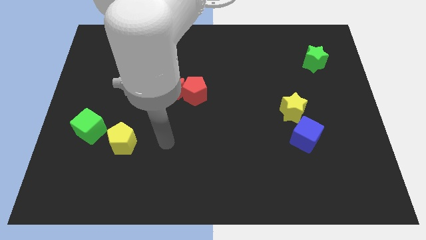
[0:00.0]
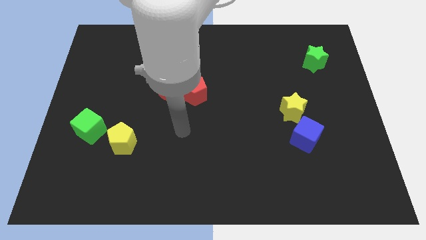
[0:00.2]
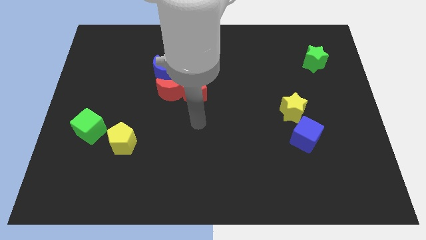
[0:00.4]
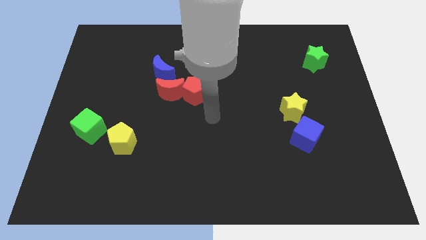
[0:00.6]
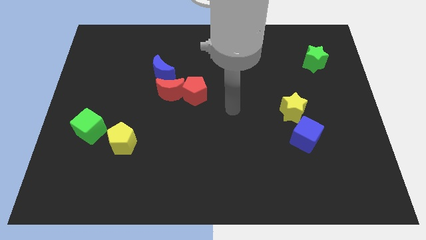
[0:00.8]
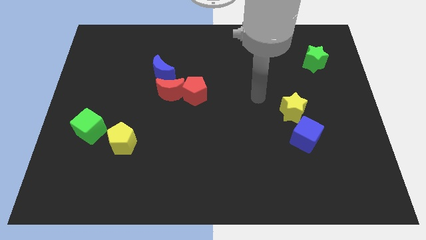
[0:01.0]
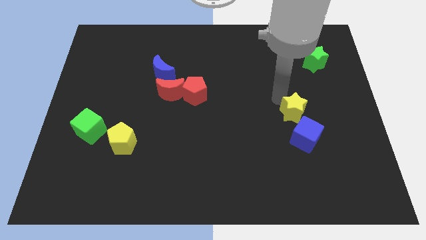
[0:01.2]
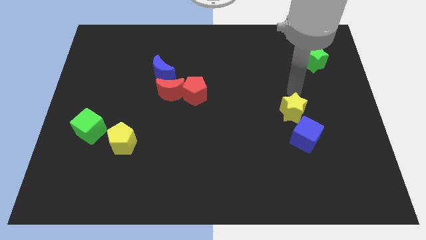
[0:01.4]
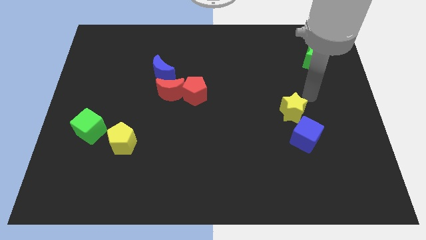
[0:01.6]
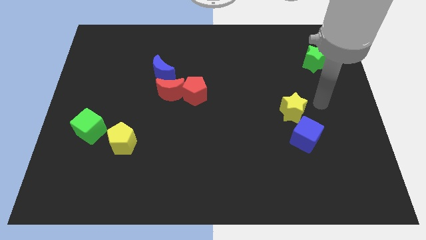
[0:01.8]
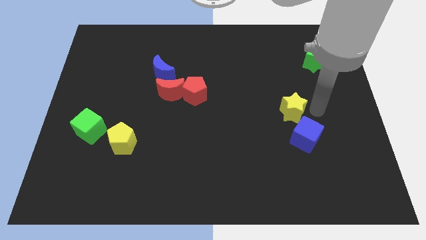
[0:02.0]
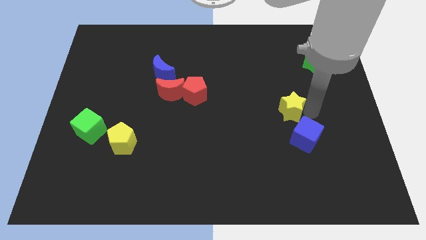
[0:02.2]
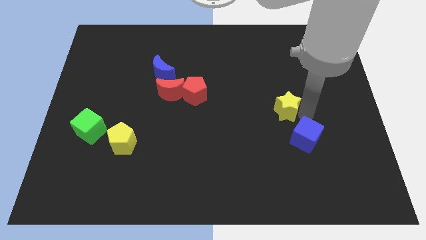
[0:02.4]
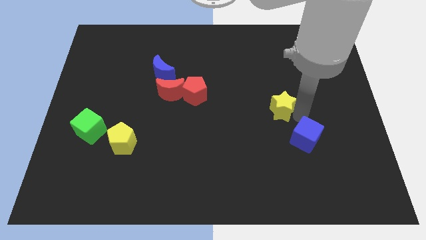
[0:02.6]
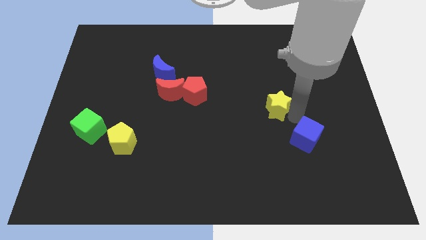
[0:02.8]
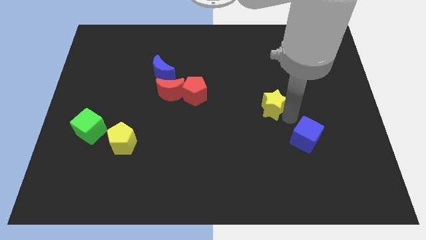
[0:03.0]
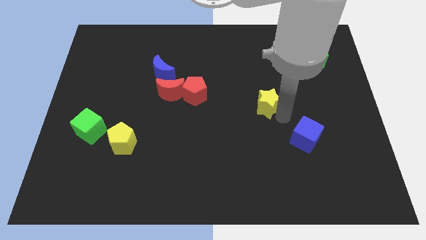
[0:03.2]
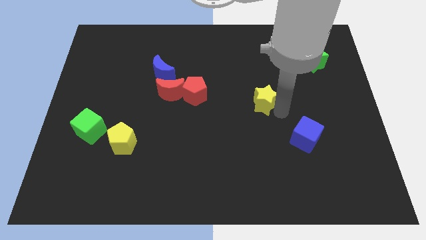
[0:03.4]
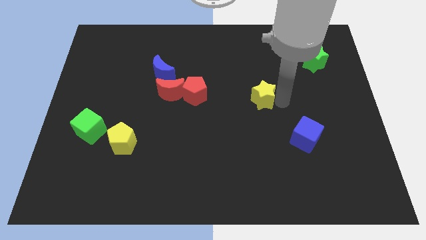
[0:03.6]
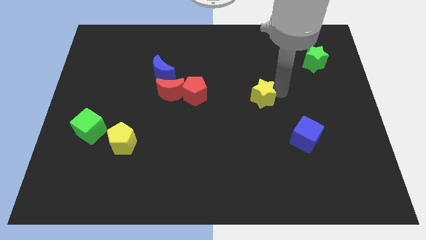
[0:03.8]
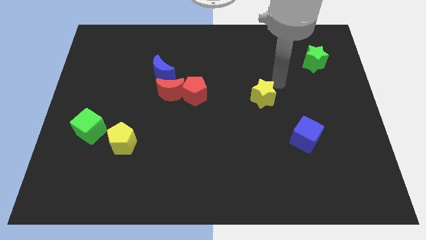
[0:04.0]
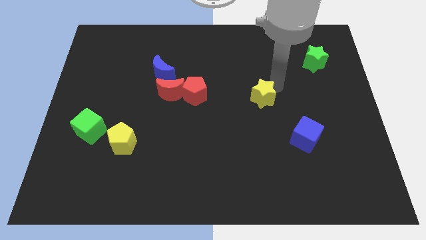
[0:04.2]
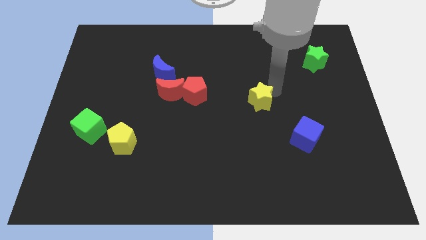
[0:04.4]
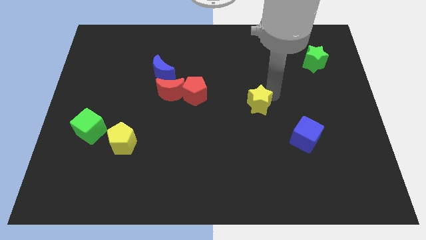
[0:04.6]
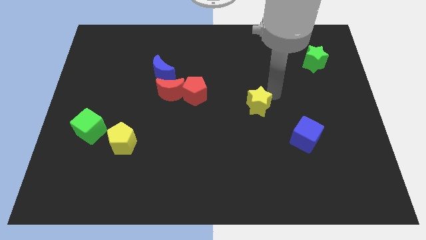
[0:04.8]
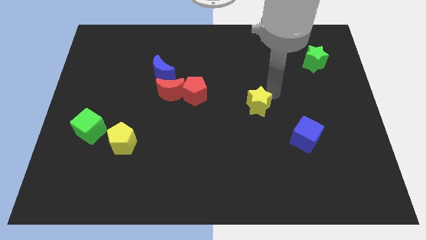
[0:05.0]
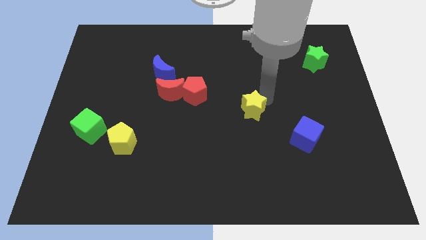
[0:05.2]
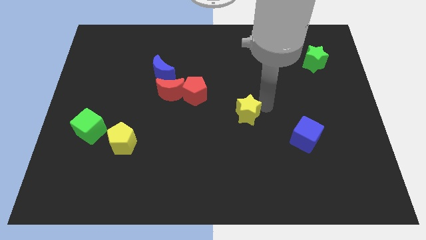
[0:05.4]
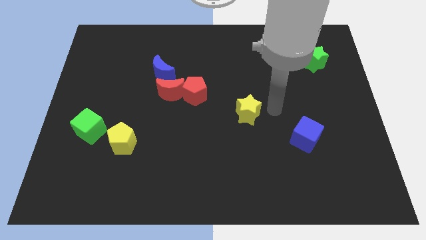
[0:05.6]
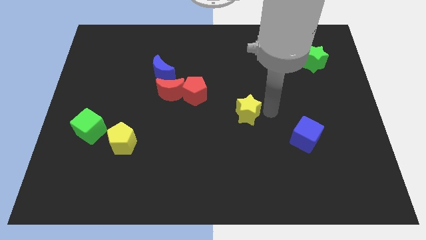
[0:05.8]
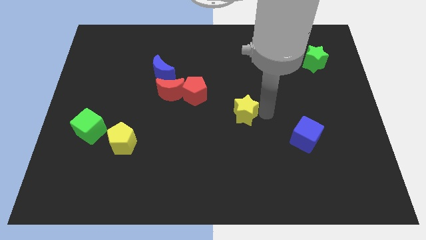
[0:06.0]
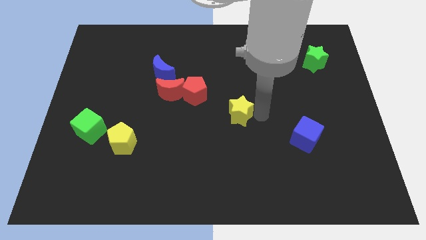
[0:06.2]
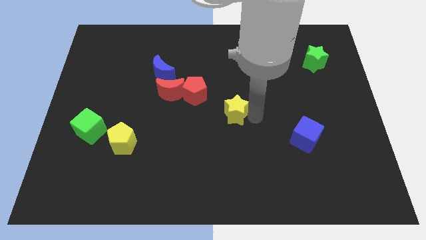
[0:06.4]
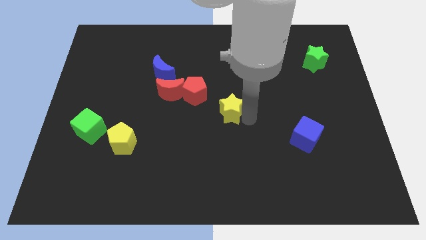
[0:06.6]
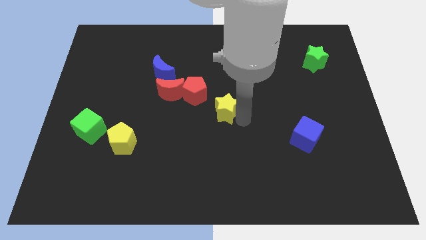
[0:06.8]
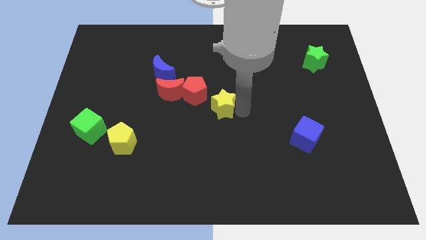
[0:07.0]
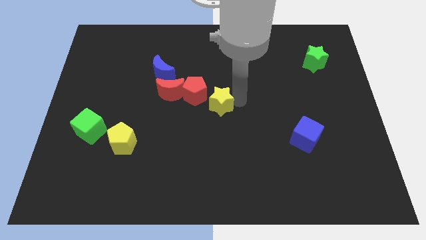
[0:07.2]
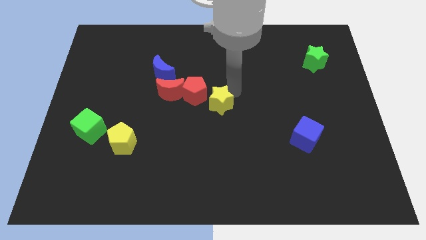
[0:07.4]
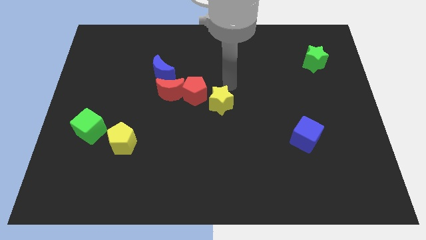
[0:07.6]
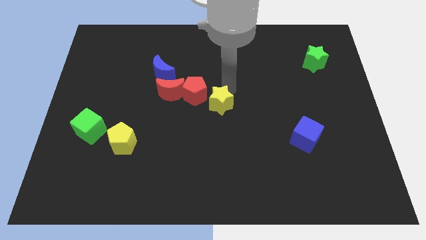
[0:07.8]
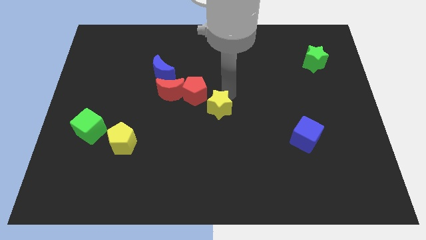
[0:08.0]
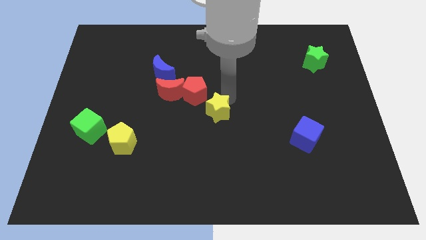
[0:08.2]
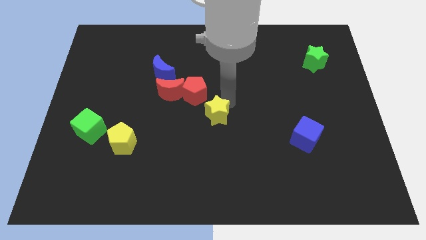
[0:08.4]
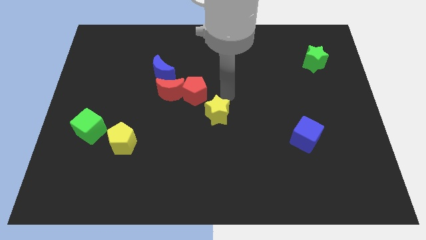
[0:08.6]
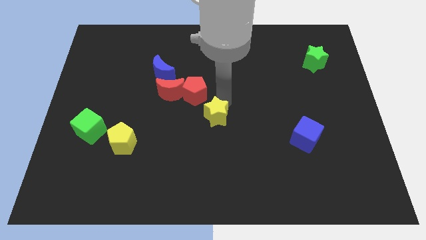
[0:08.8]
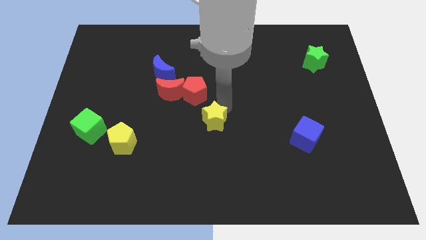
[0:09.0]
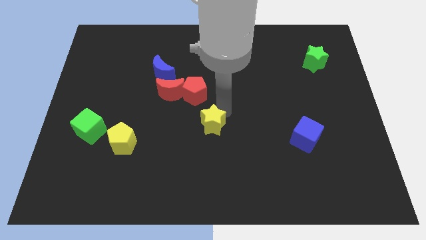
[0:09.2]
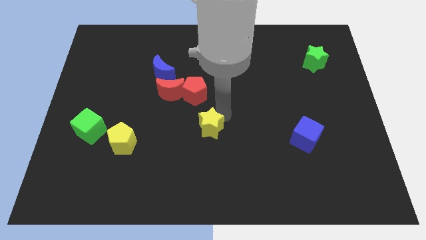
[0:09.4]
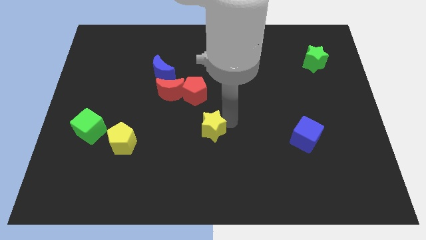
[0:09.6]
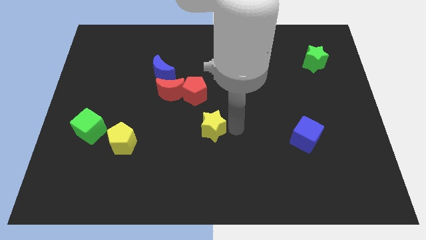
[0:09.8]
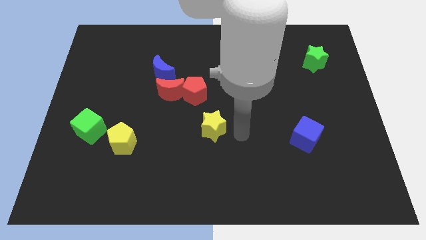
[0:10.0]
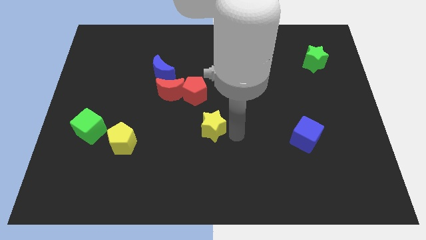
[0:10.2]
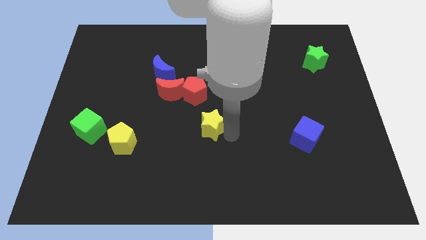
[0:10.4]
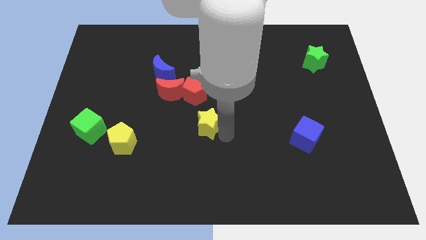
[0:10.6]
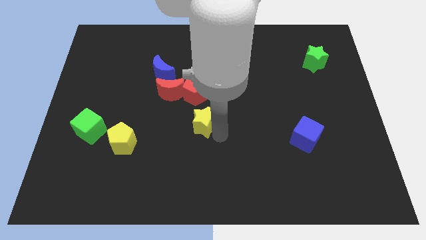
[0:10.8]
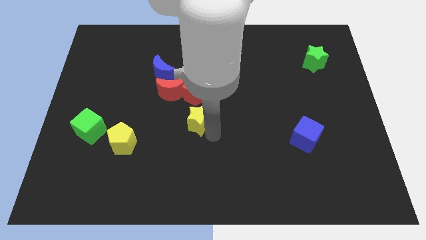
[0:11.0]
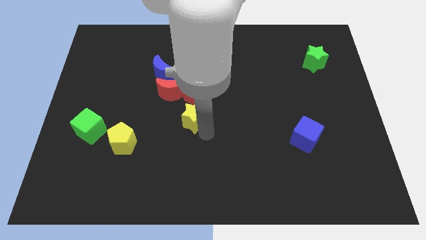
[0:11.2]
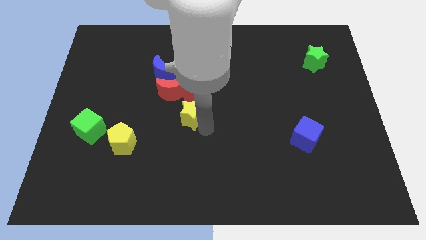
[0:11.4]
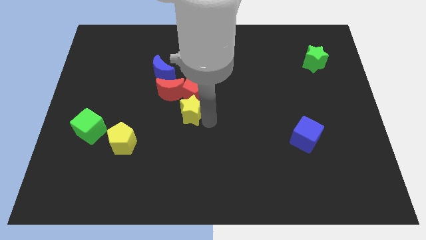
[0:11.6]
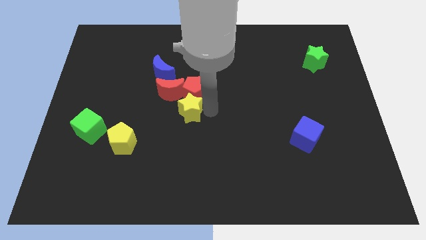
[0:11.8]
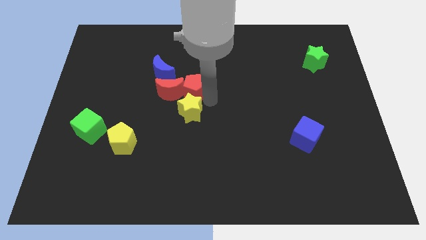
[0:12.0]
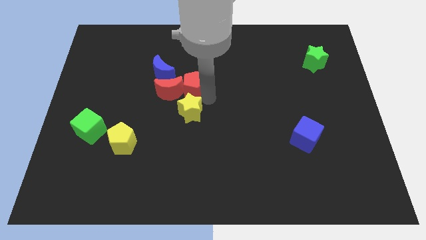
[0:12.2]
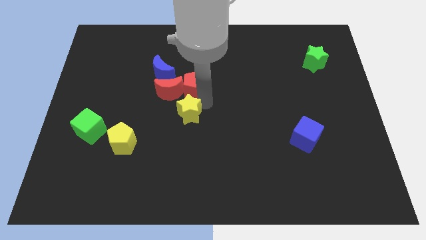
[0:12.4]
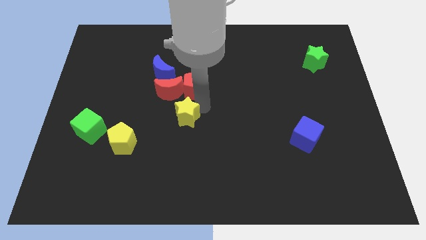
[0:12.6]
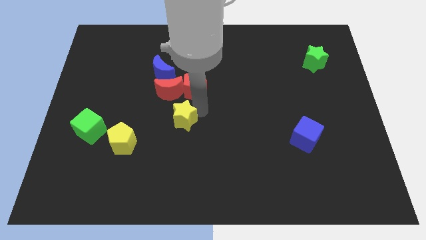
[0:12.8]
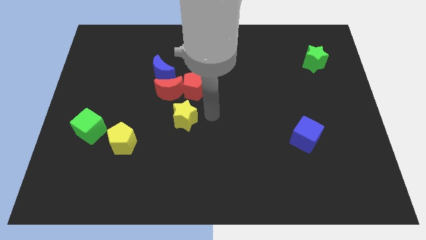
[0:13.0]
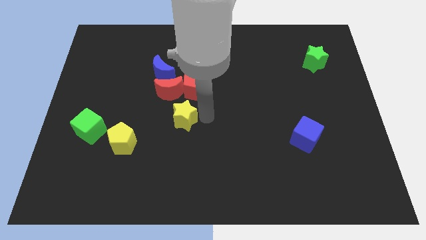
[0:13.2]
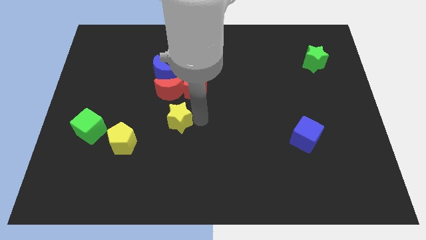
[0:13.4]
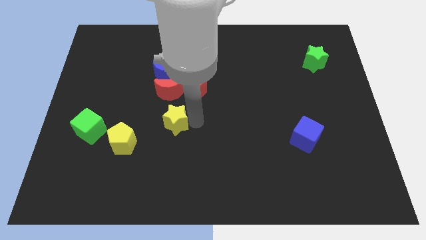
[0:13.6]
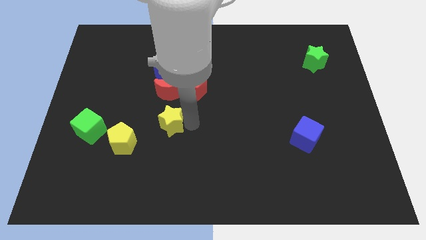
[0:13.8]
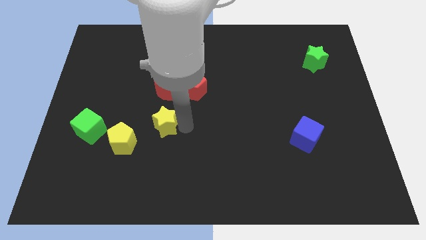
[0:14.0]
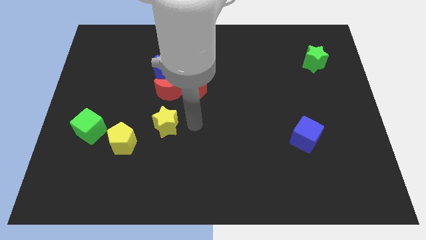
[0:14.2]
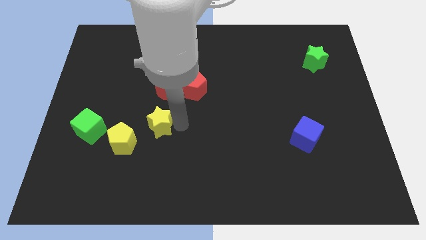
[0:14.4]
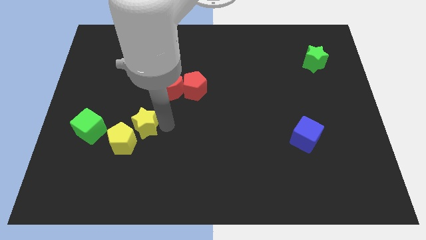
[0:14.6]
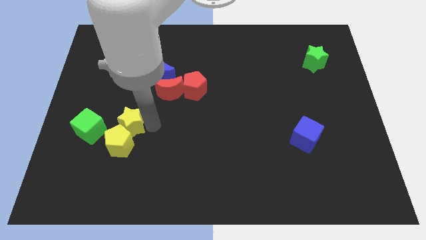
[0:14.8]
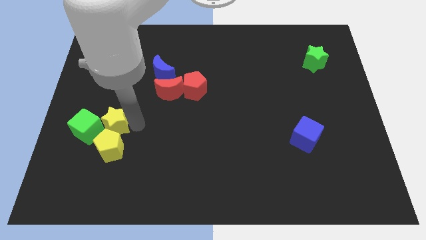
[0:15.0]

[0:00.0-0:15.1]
move the yellow star to the green cube
